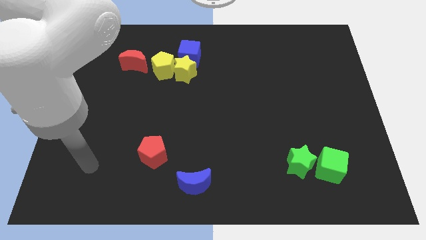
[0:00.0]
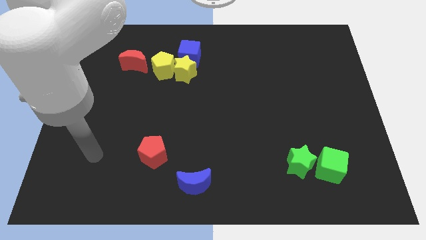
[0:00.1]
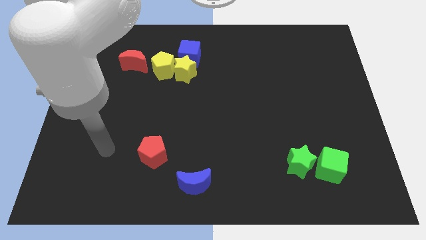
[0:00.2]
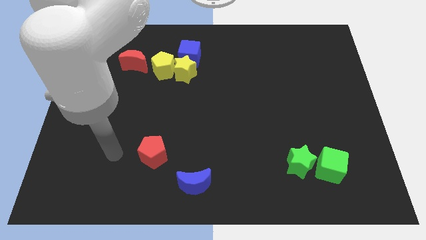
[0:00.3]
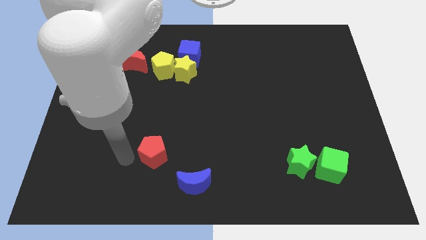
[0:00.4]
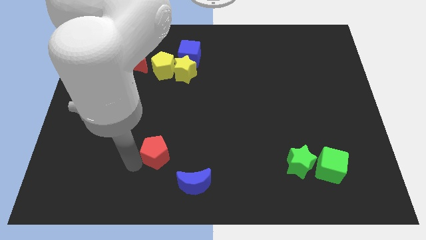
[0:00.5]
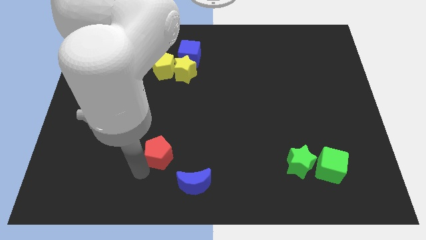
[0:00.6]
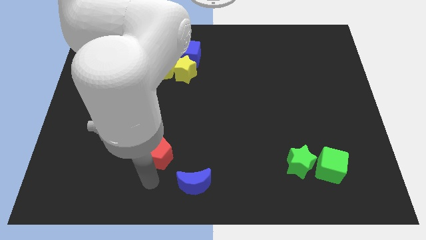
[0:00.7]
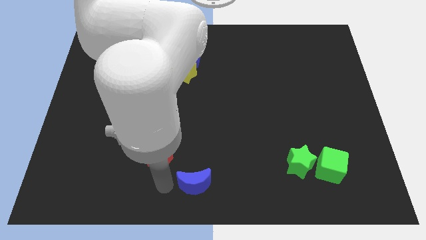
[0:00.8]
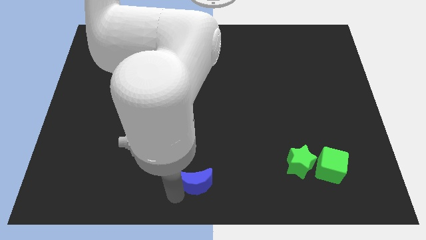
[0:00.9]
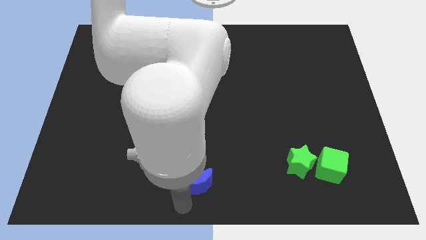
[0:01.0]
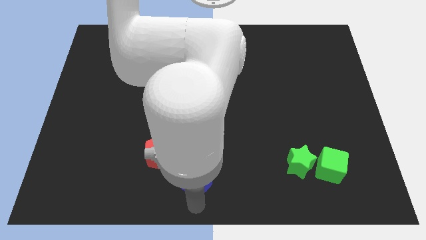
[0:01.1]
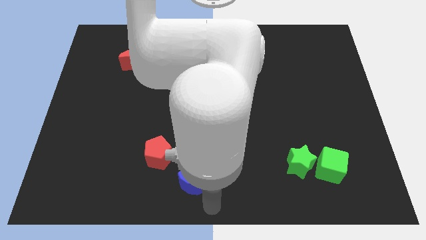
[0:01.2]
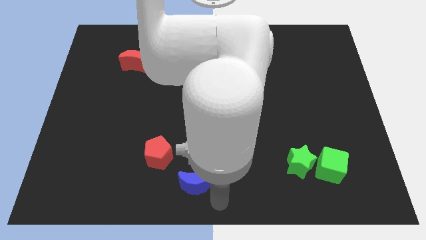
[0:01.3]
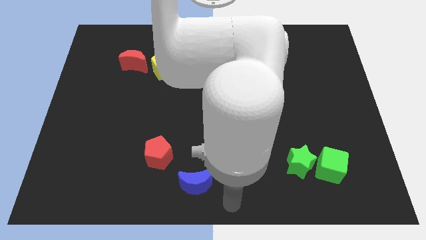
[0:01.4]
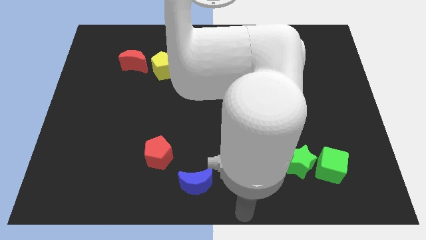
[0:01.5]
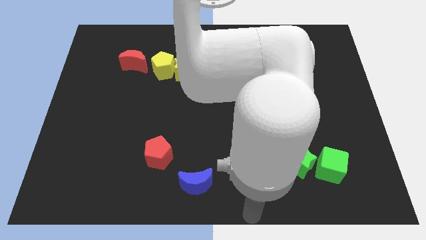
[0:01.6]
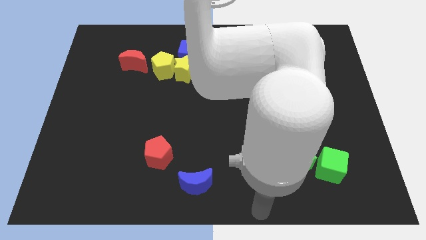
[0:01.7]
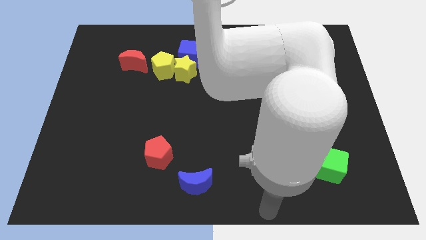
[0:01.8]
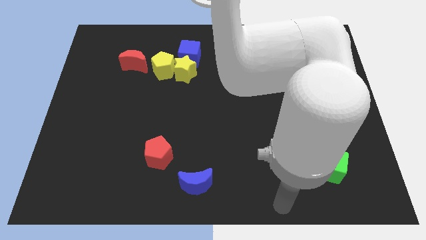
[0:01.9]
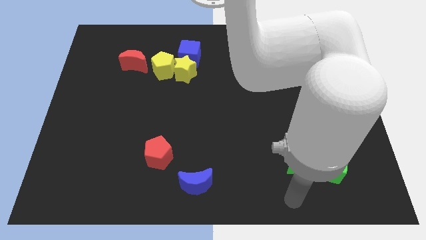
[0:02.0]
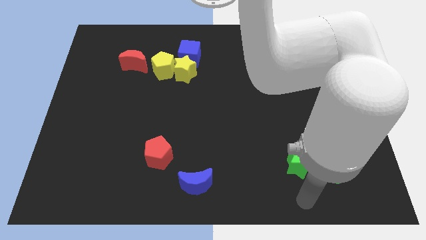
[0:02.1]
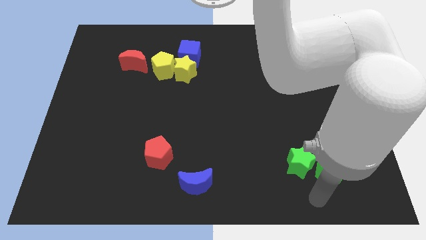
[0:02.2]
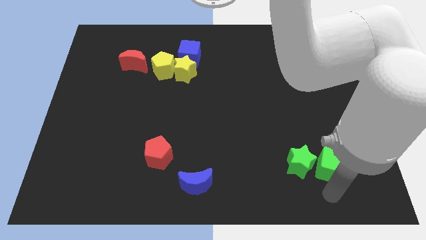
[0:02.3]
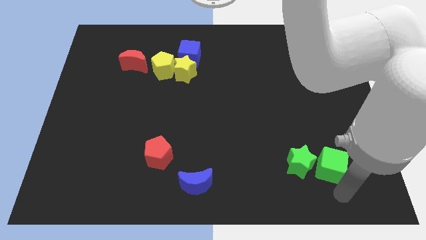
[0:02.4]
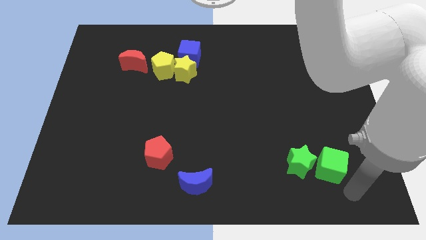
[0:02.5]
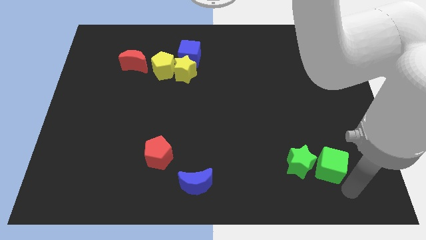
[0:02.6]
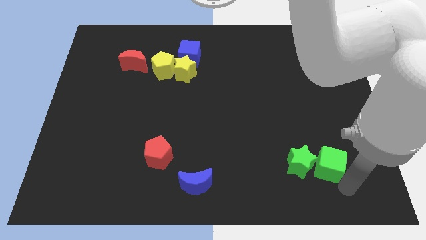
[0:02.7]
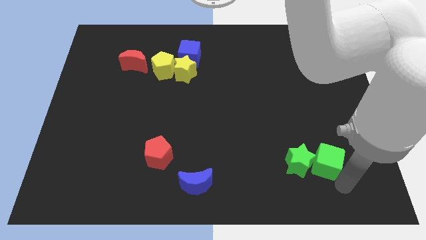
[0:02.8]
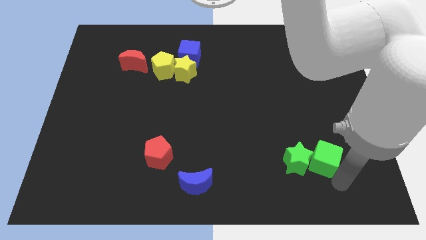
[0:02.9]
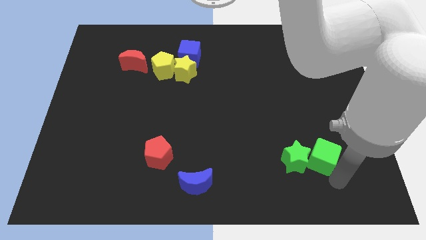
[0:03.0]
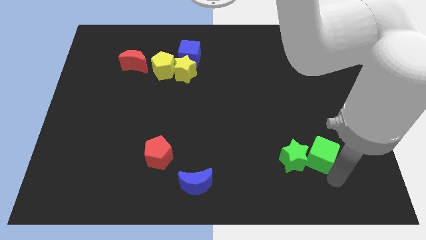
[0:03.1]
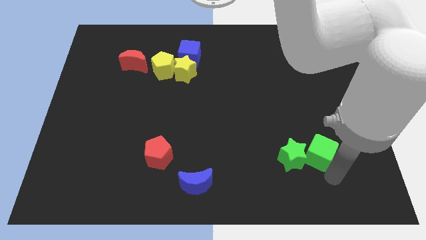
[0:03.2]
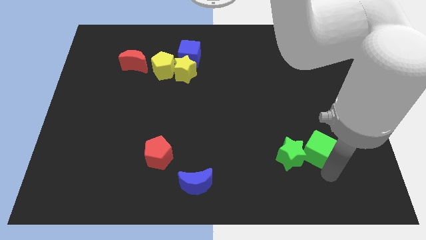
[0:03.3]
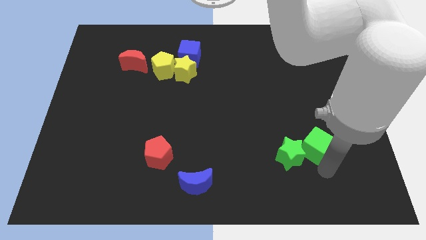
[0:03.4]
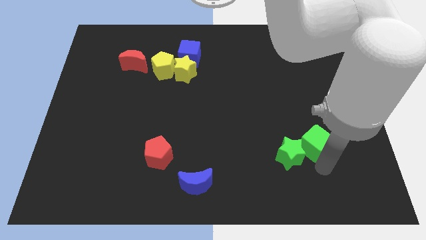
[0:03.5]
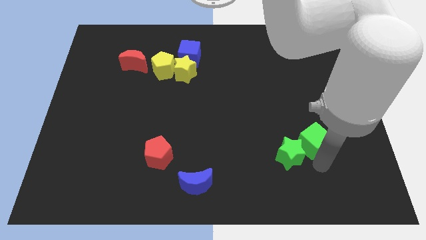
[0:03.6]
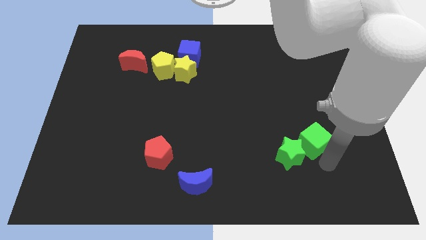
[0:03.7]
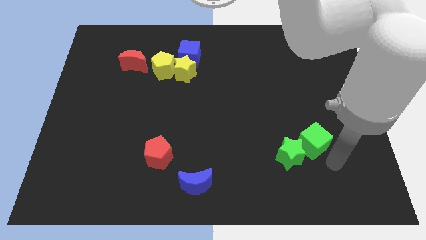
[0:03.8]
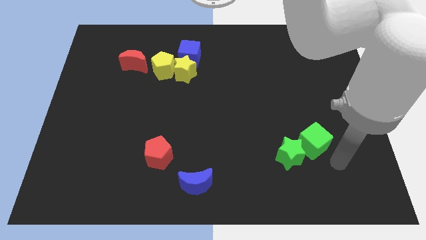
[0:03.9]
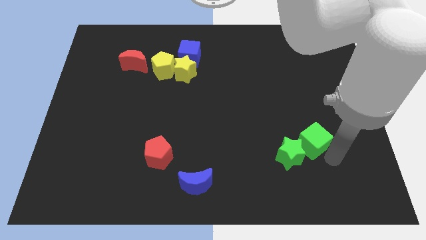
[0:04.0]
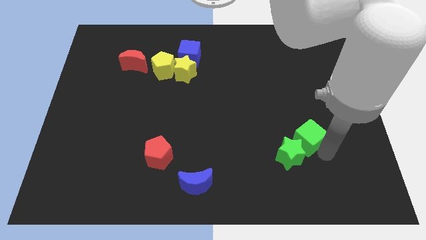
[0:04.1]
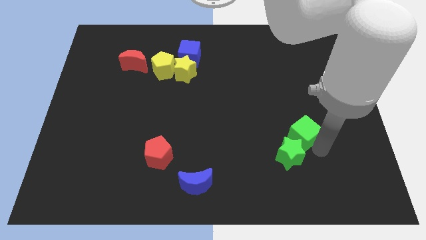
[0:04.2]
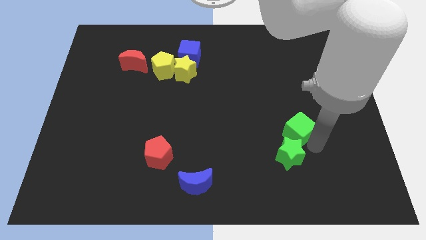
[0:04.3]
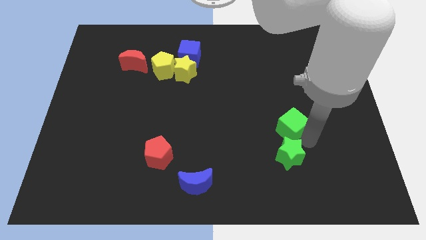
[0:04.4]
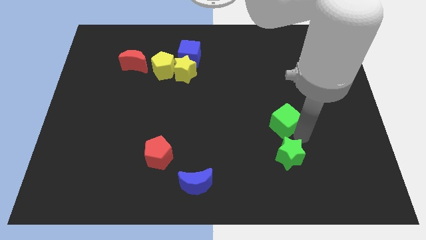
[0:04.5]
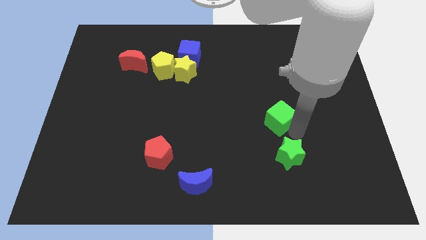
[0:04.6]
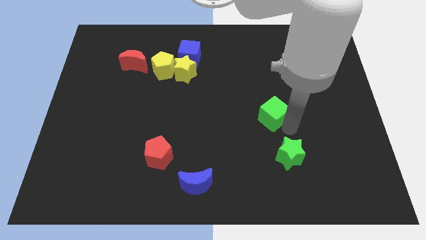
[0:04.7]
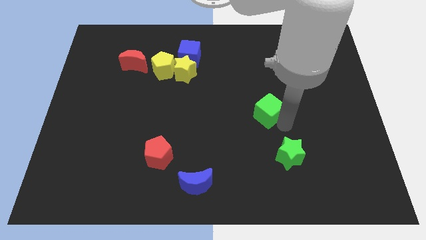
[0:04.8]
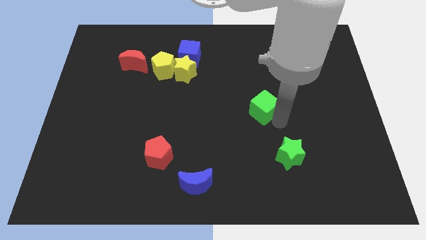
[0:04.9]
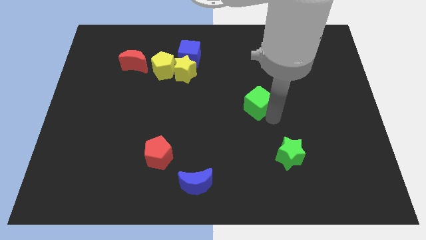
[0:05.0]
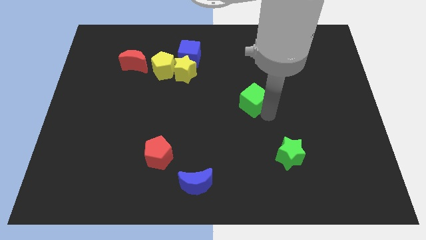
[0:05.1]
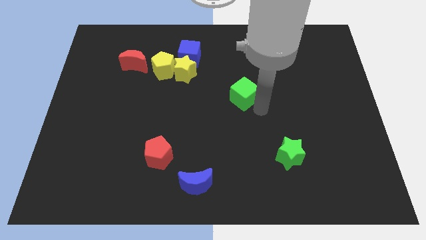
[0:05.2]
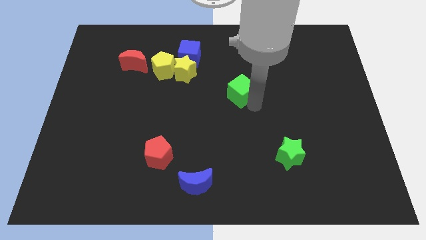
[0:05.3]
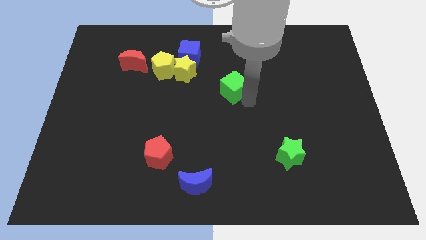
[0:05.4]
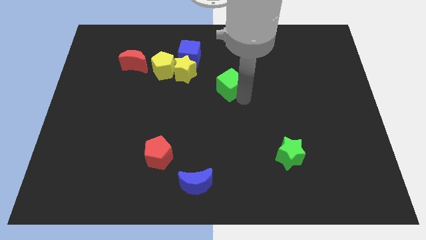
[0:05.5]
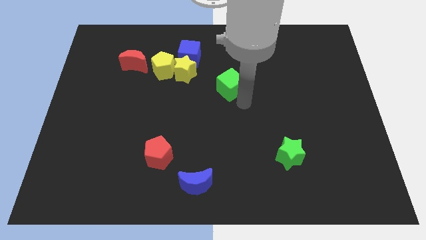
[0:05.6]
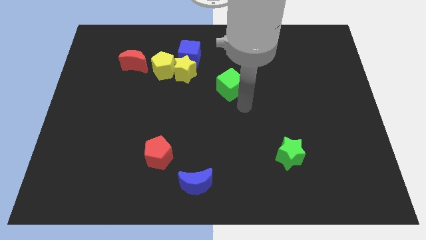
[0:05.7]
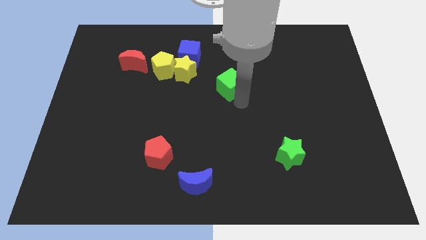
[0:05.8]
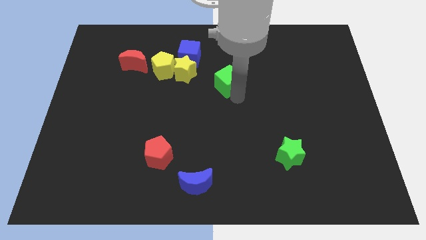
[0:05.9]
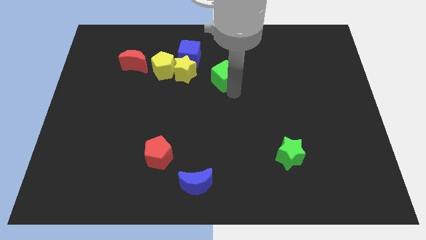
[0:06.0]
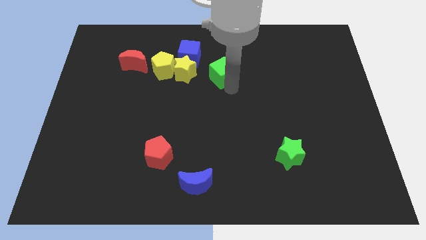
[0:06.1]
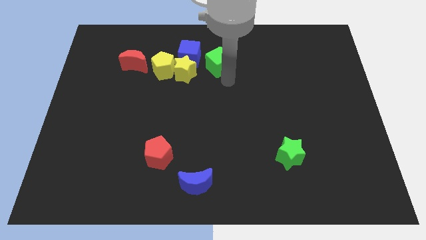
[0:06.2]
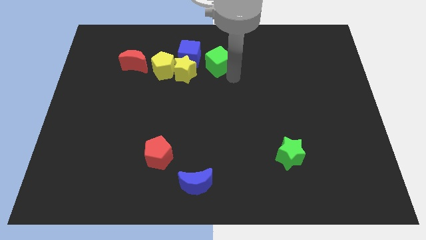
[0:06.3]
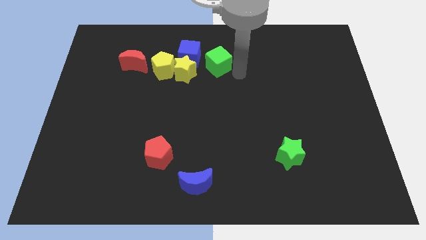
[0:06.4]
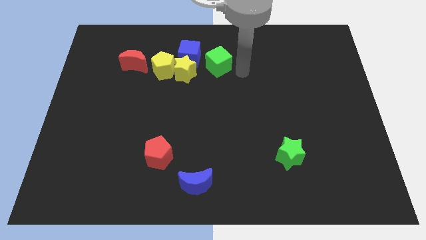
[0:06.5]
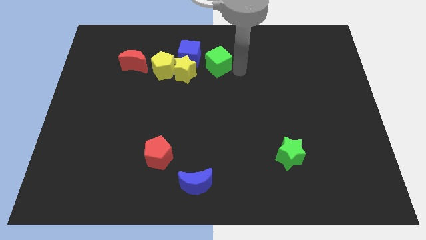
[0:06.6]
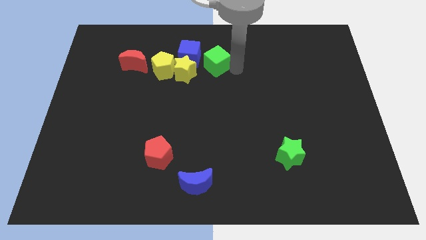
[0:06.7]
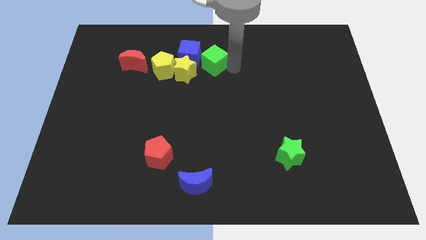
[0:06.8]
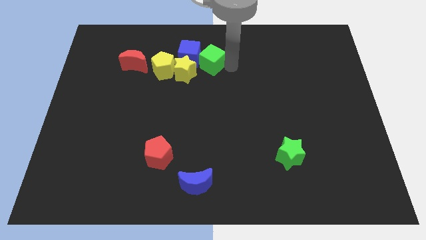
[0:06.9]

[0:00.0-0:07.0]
push the green cube close to the blue cube

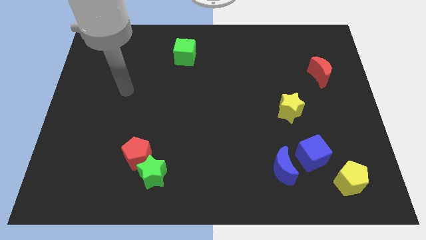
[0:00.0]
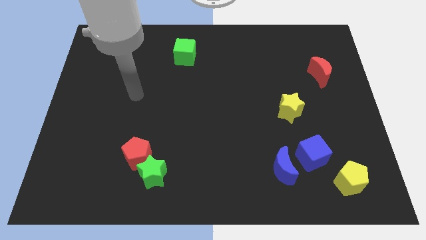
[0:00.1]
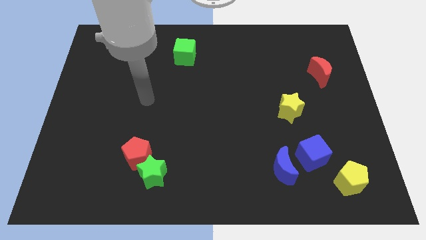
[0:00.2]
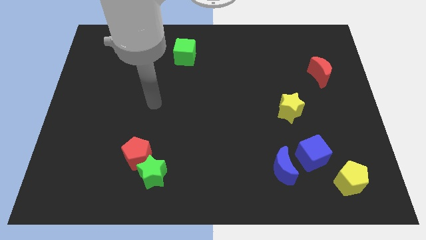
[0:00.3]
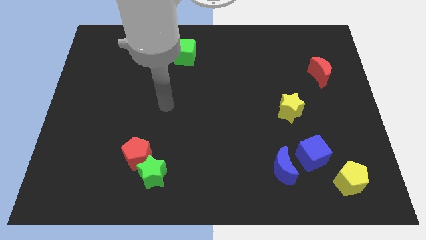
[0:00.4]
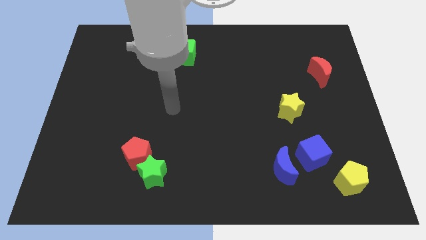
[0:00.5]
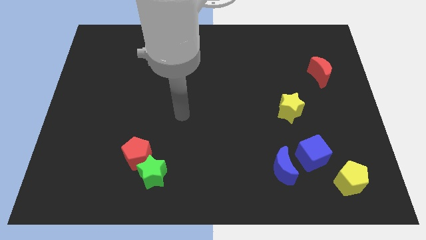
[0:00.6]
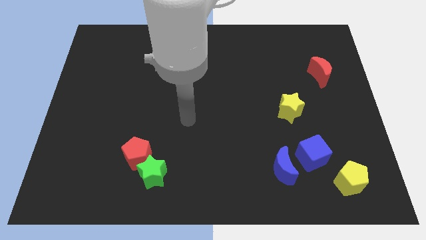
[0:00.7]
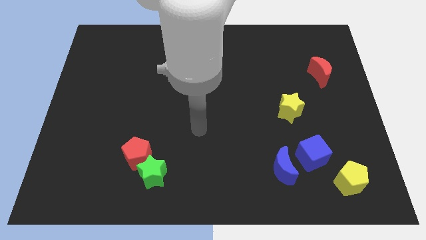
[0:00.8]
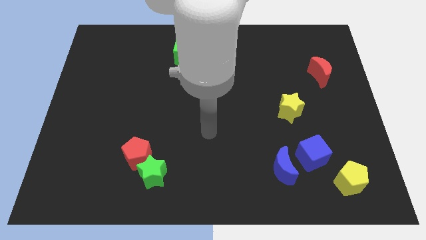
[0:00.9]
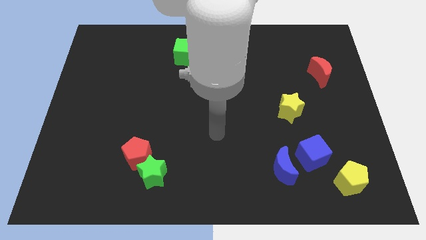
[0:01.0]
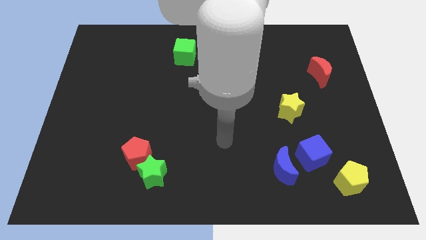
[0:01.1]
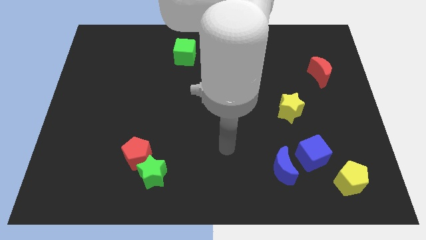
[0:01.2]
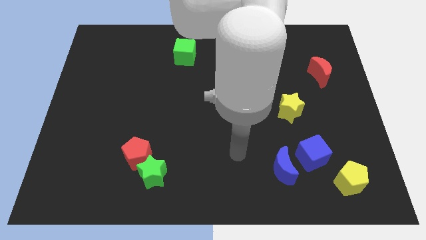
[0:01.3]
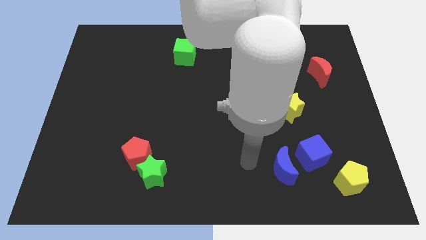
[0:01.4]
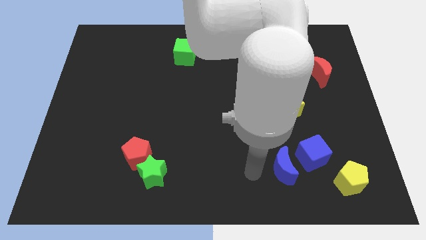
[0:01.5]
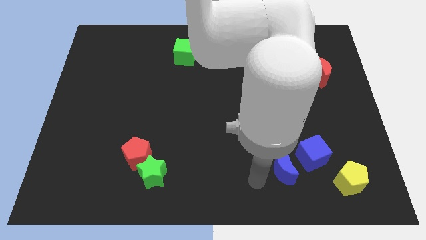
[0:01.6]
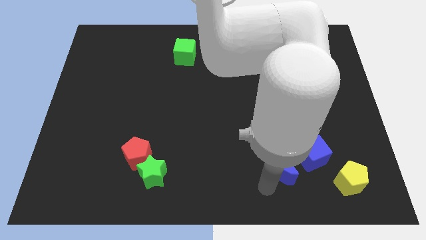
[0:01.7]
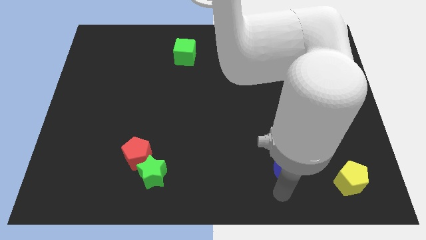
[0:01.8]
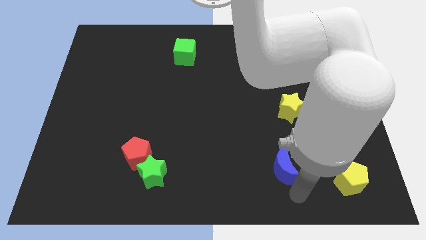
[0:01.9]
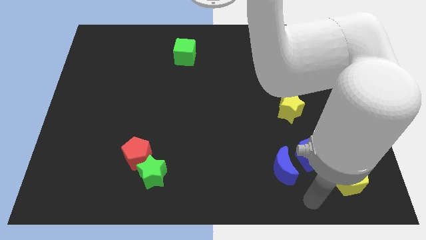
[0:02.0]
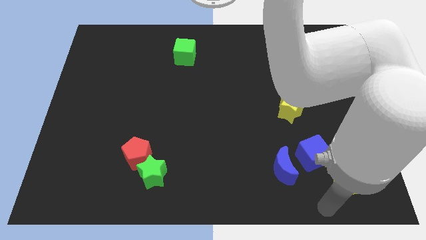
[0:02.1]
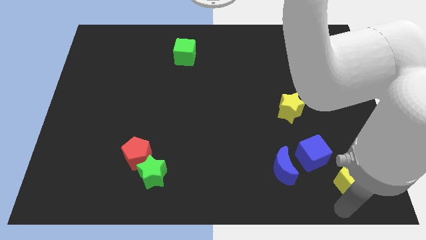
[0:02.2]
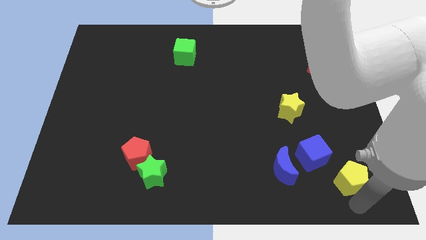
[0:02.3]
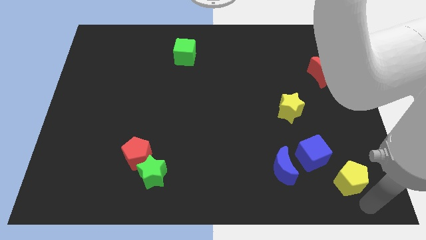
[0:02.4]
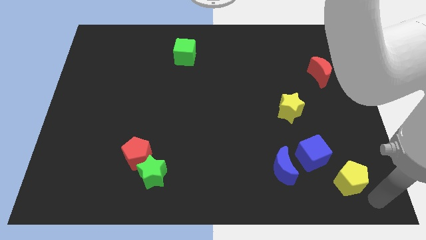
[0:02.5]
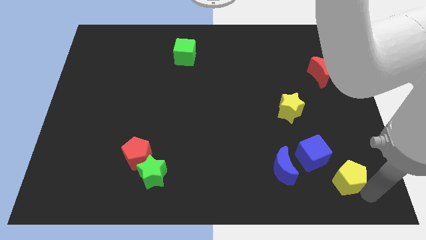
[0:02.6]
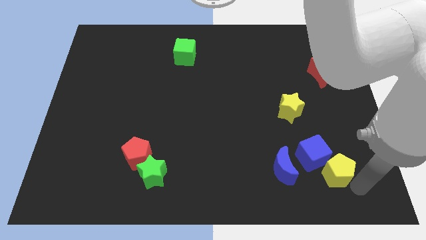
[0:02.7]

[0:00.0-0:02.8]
slide the yellow pentagon next to the blue cube
